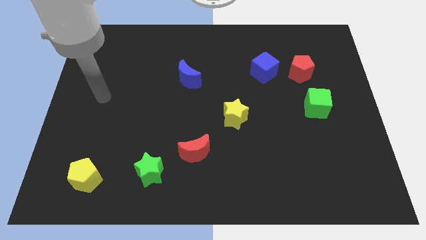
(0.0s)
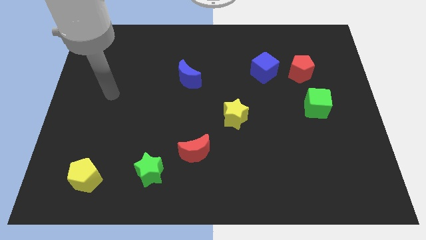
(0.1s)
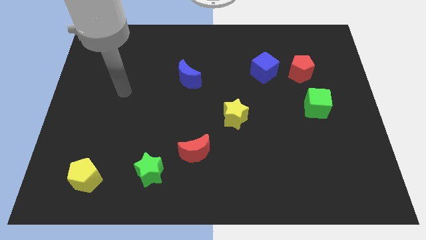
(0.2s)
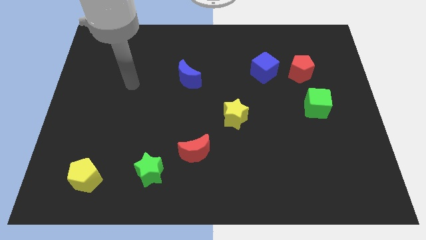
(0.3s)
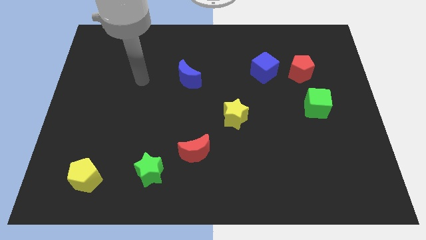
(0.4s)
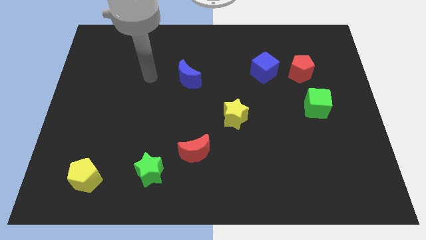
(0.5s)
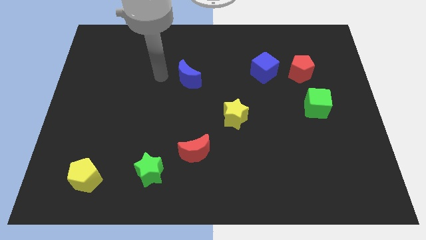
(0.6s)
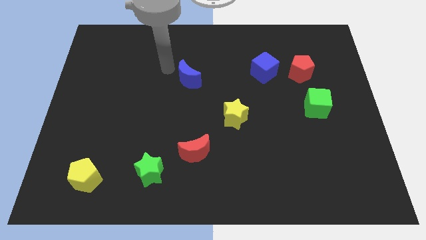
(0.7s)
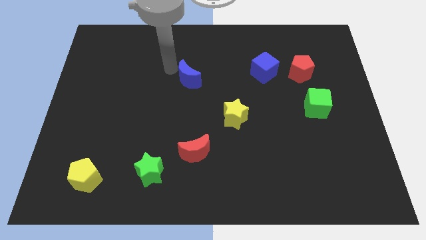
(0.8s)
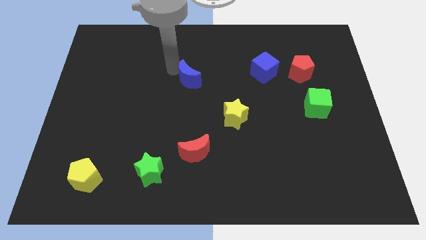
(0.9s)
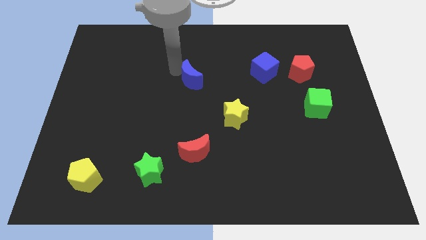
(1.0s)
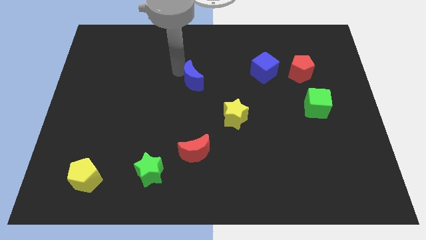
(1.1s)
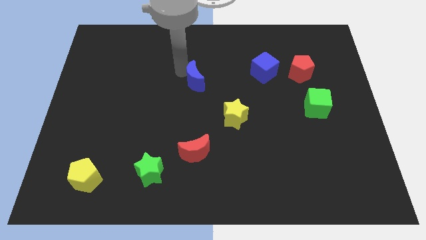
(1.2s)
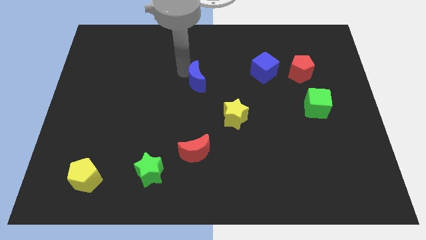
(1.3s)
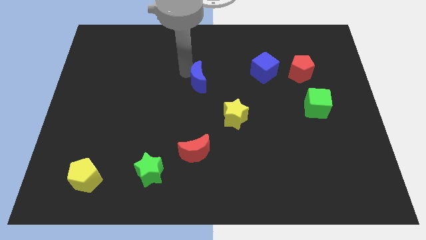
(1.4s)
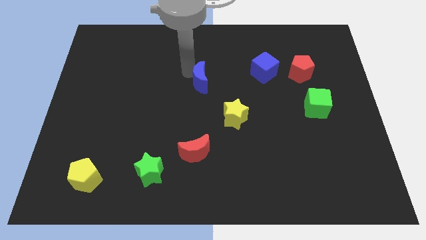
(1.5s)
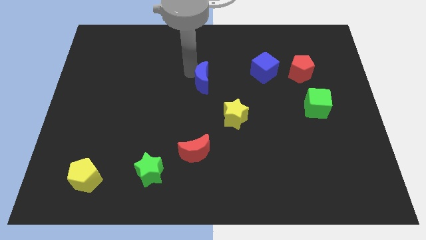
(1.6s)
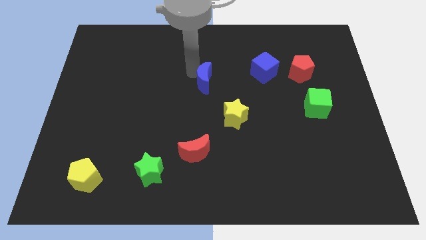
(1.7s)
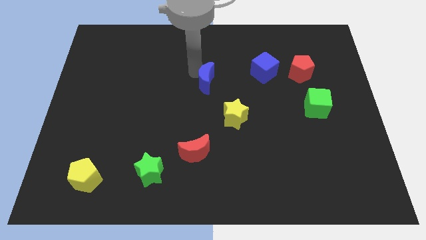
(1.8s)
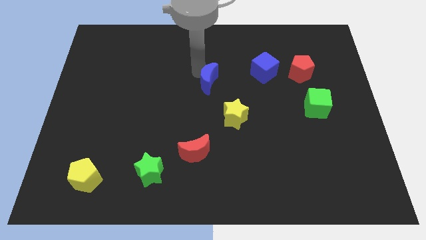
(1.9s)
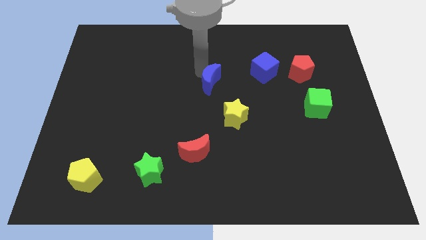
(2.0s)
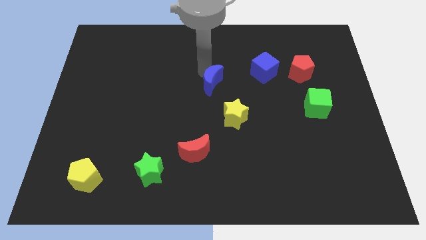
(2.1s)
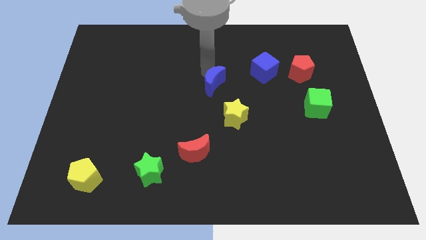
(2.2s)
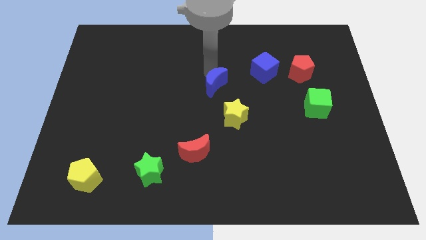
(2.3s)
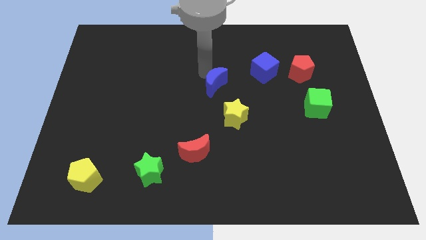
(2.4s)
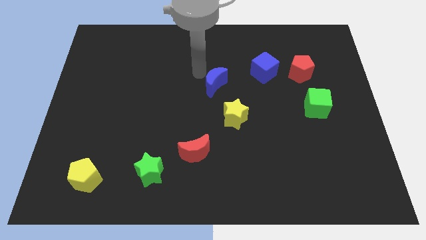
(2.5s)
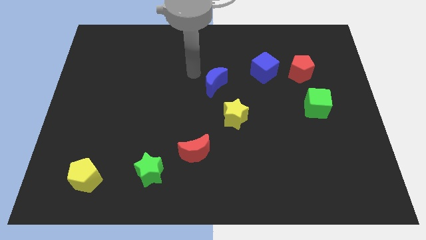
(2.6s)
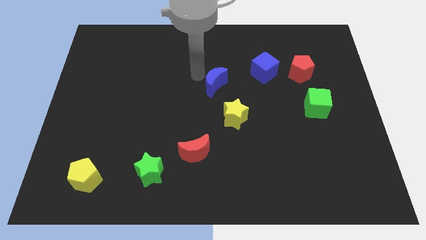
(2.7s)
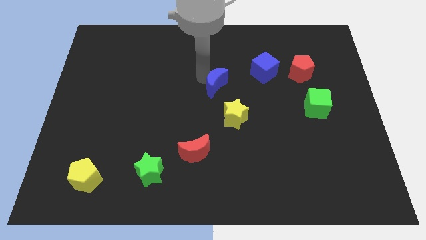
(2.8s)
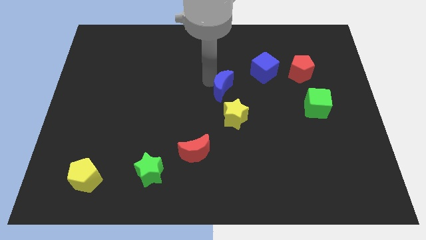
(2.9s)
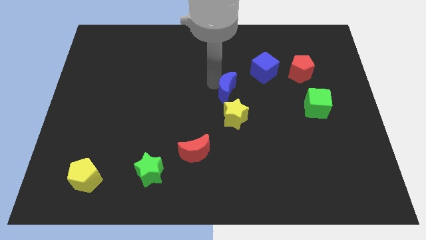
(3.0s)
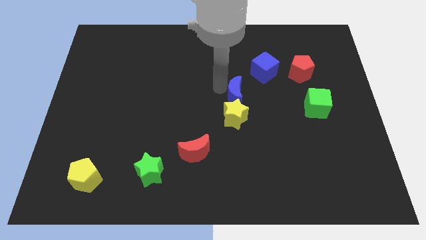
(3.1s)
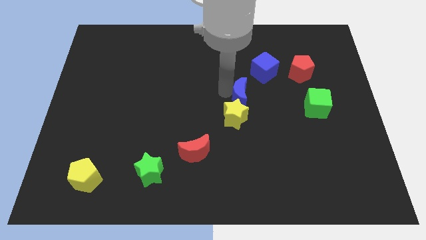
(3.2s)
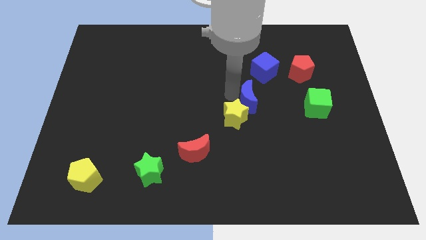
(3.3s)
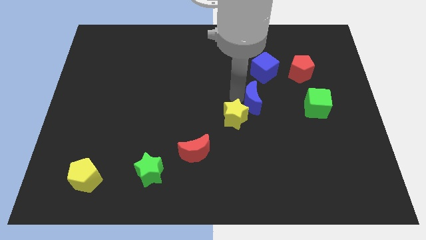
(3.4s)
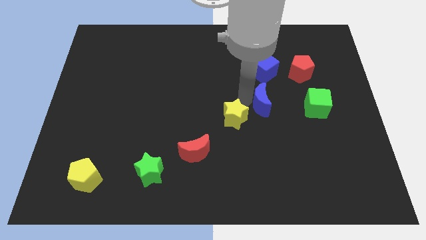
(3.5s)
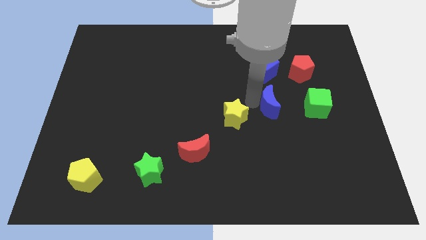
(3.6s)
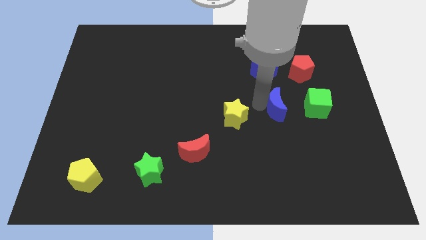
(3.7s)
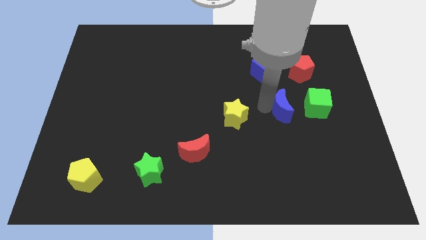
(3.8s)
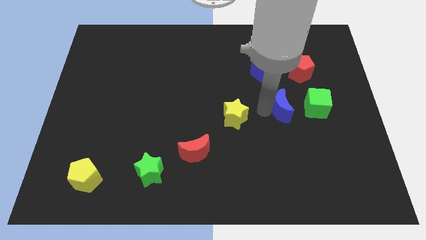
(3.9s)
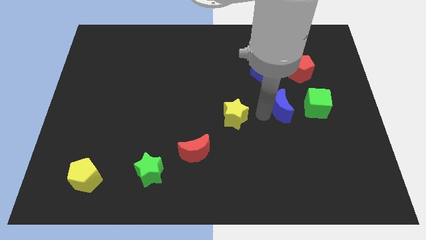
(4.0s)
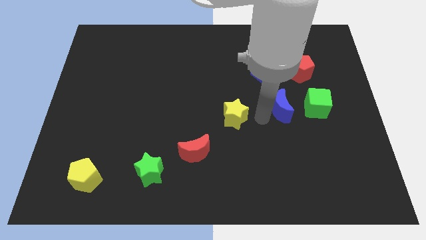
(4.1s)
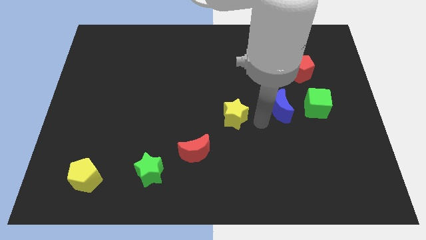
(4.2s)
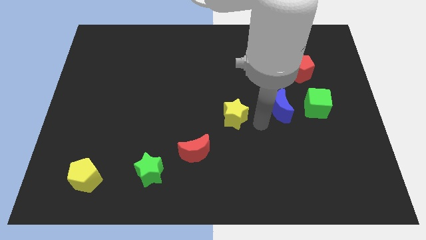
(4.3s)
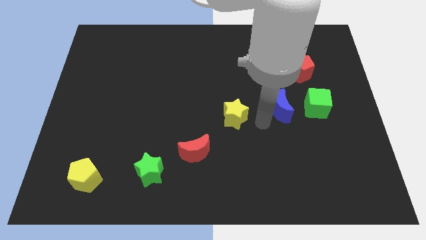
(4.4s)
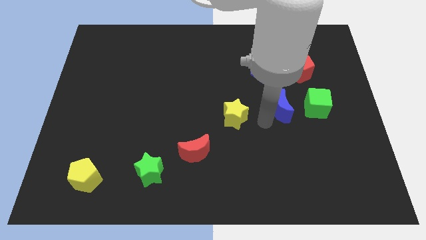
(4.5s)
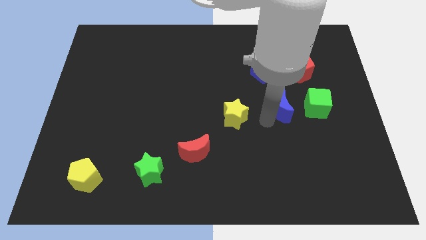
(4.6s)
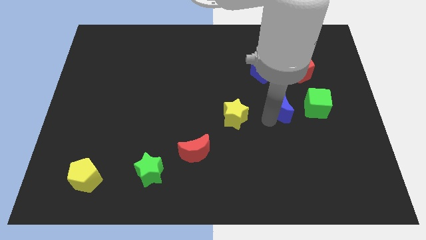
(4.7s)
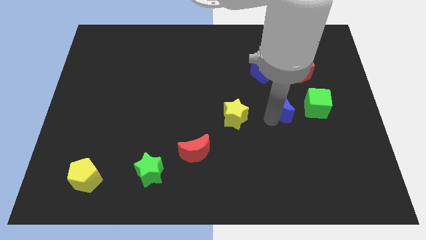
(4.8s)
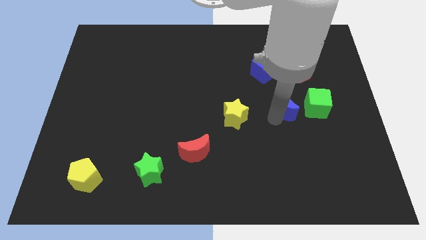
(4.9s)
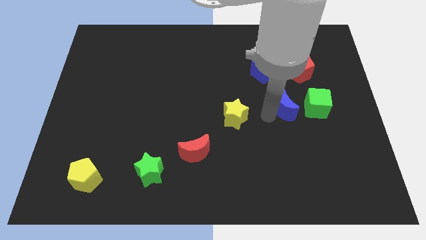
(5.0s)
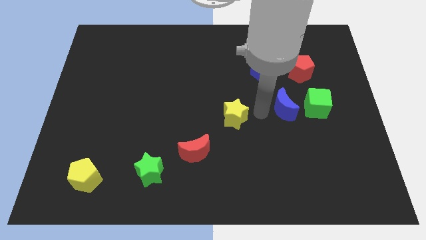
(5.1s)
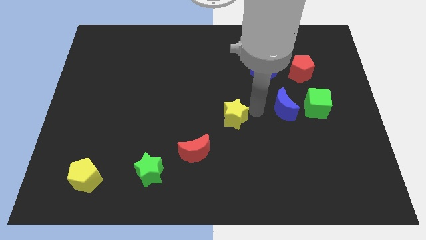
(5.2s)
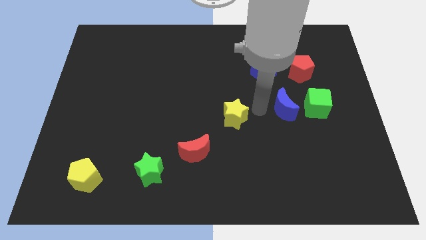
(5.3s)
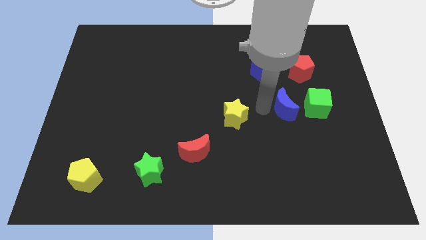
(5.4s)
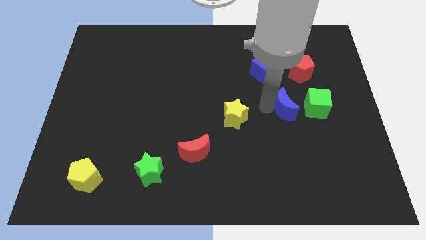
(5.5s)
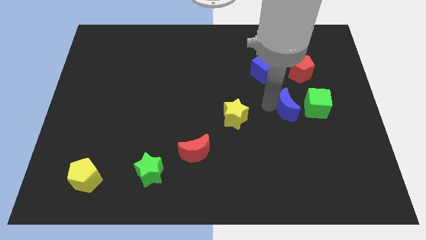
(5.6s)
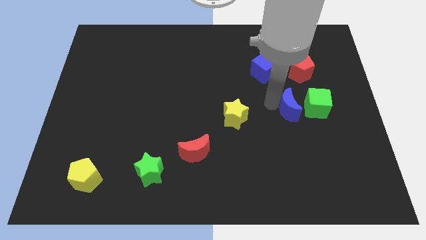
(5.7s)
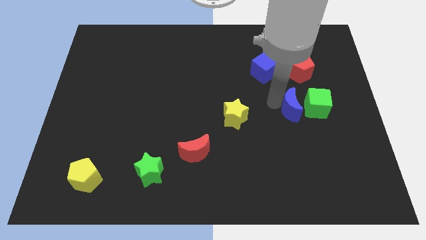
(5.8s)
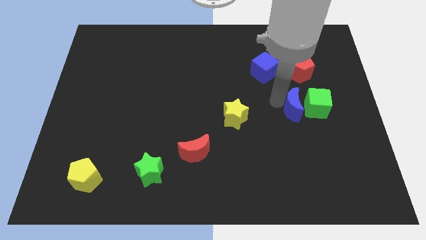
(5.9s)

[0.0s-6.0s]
push the blue moon next to the green cube

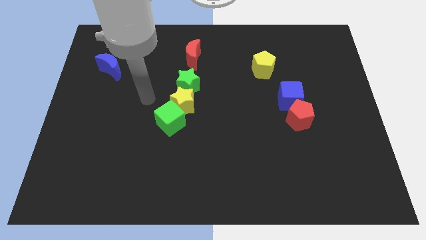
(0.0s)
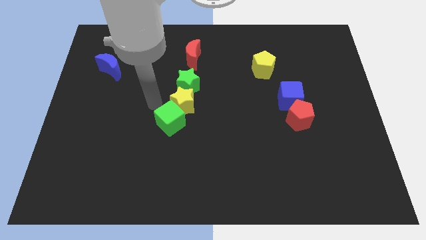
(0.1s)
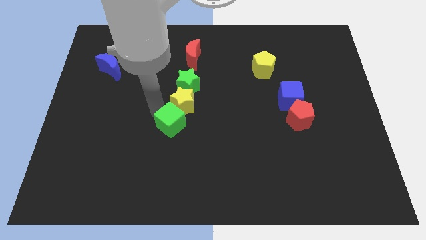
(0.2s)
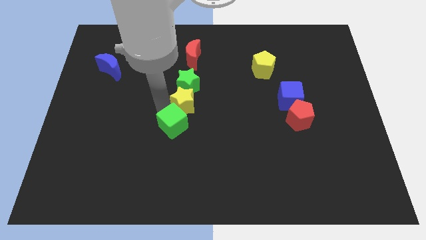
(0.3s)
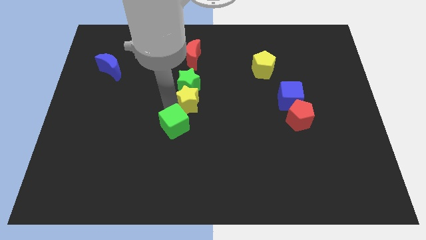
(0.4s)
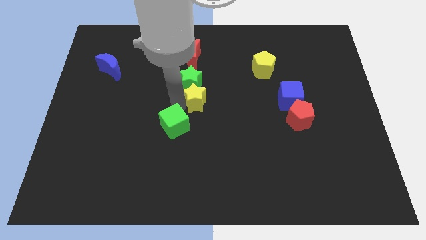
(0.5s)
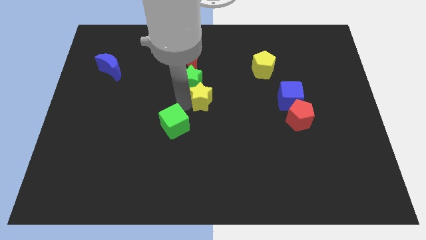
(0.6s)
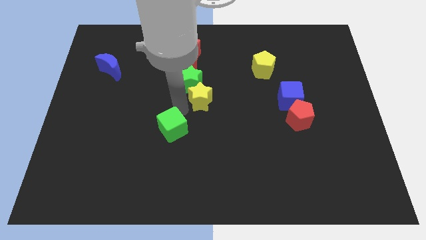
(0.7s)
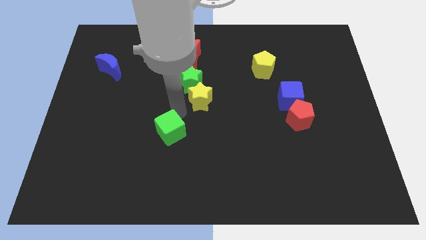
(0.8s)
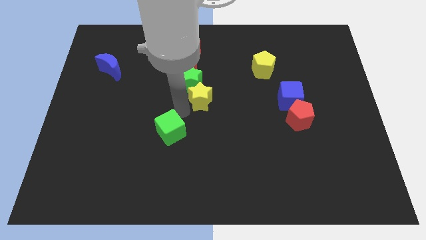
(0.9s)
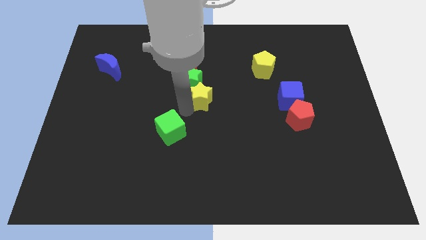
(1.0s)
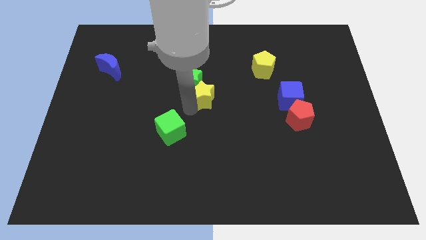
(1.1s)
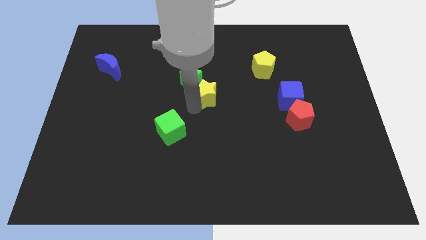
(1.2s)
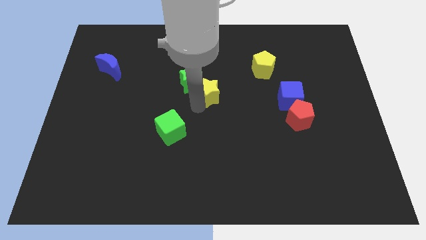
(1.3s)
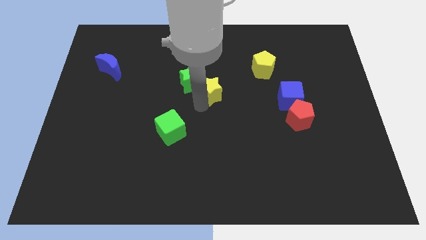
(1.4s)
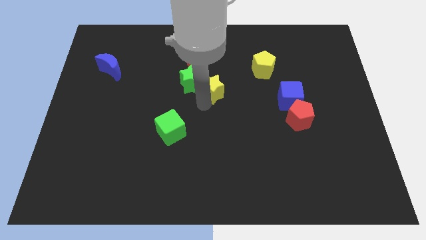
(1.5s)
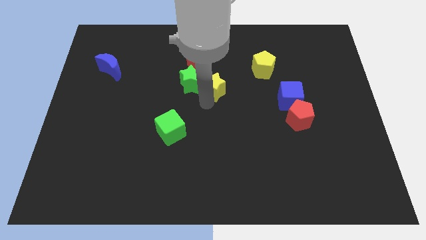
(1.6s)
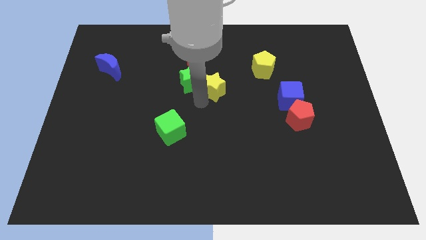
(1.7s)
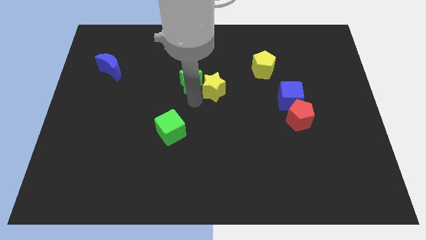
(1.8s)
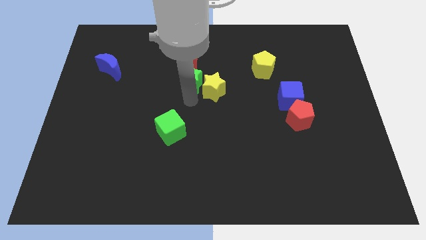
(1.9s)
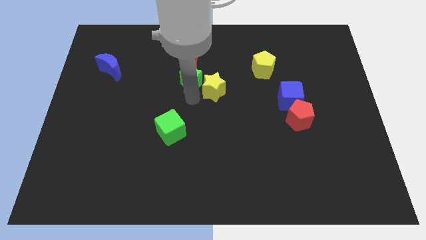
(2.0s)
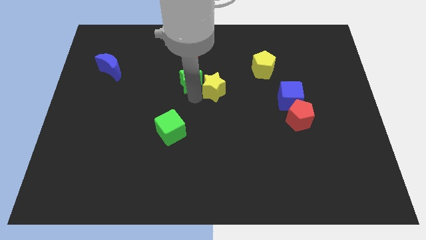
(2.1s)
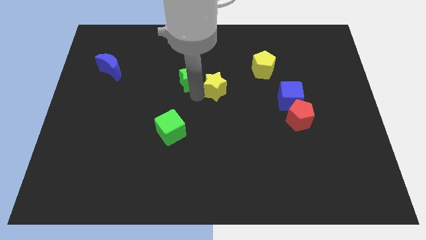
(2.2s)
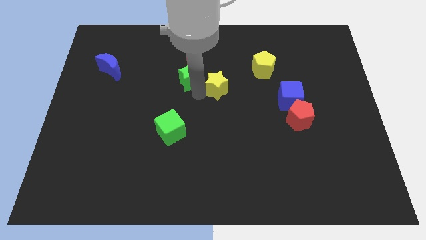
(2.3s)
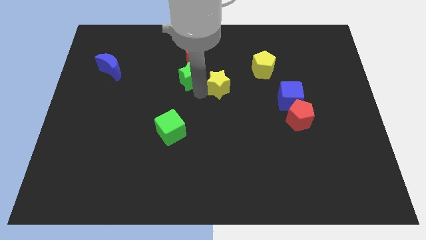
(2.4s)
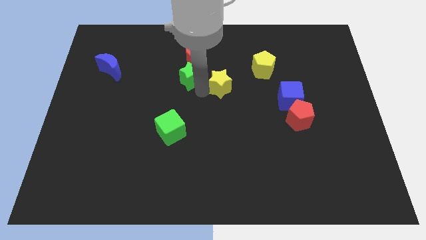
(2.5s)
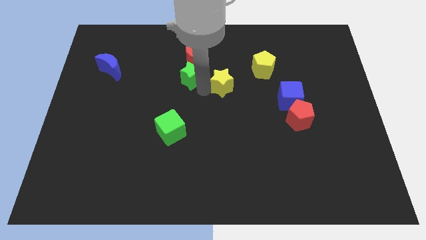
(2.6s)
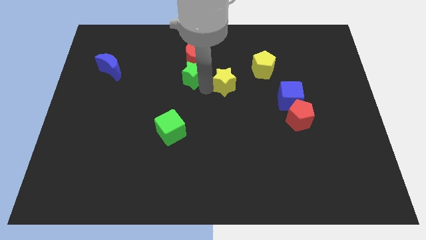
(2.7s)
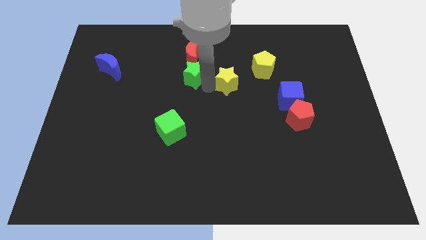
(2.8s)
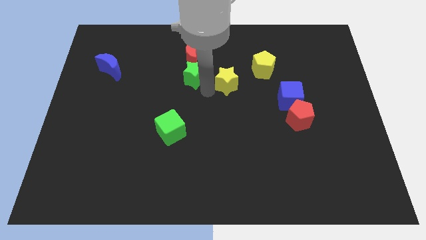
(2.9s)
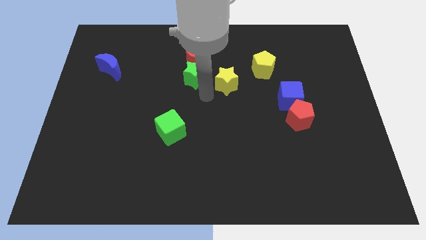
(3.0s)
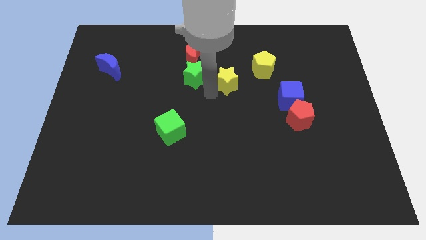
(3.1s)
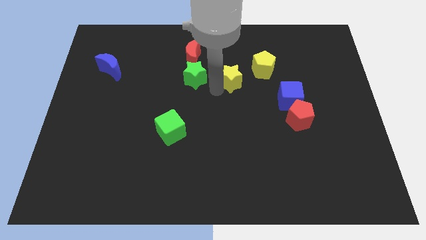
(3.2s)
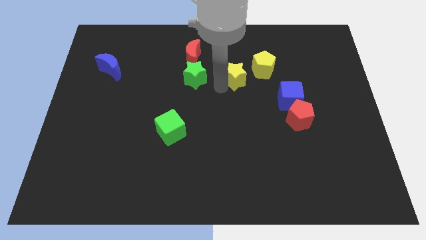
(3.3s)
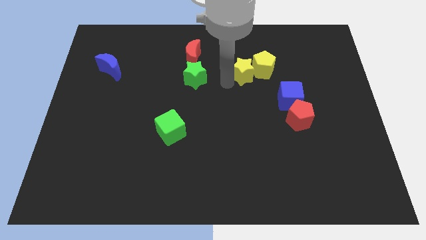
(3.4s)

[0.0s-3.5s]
push the yellow star next to the yellow pentagon
